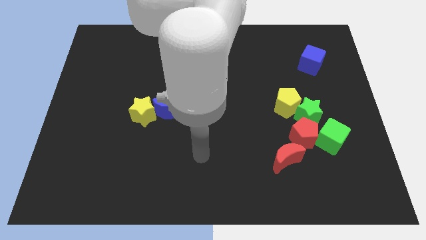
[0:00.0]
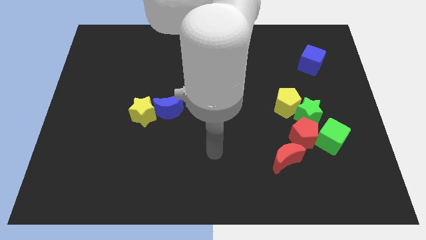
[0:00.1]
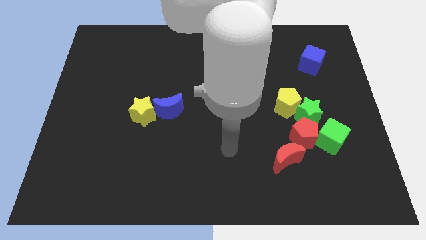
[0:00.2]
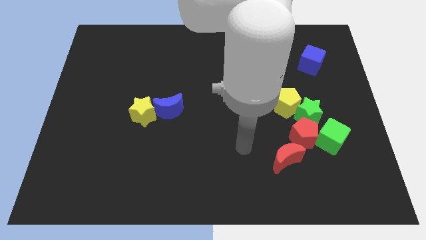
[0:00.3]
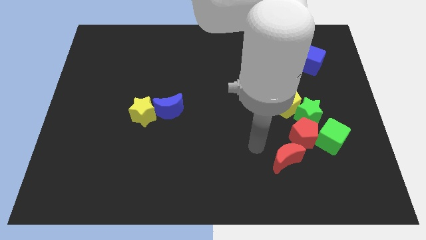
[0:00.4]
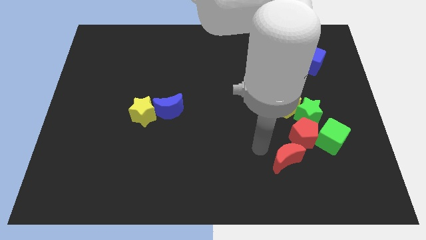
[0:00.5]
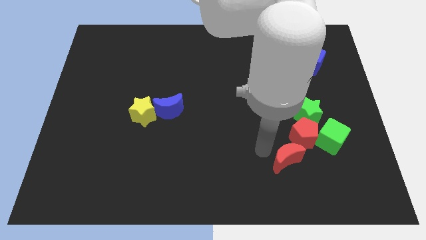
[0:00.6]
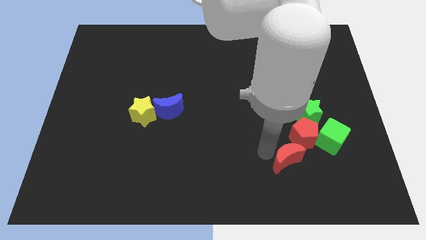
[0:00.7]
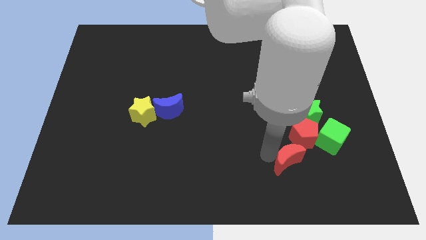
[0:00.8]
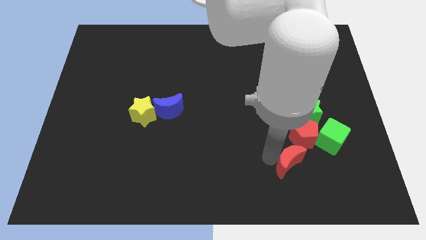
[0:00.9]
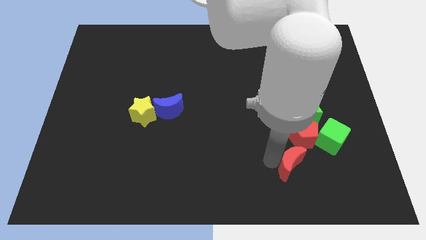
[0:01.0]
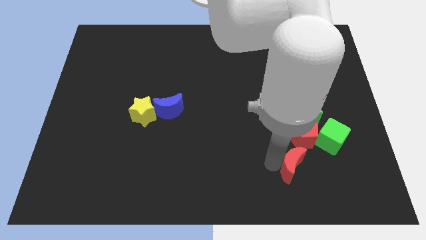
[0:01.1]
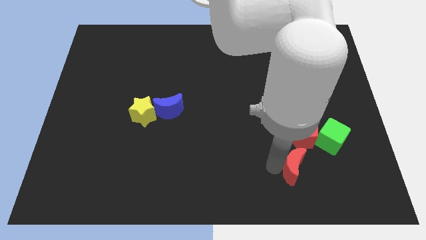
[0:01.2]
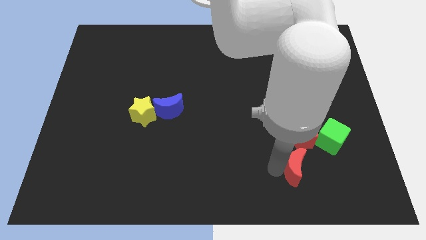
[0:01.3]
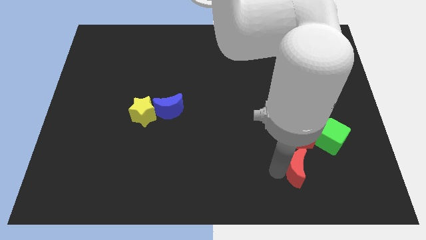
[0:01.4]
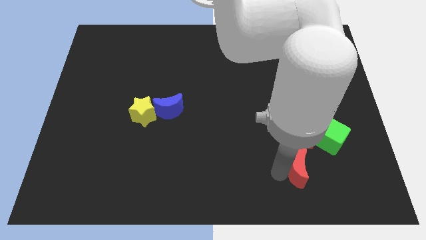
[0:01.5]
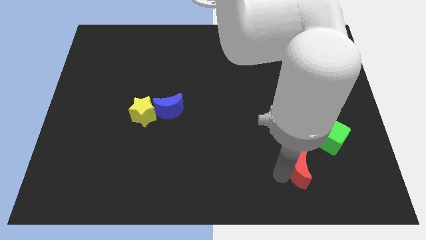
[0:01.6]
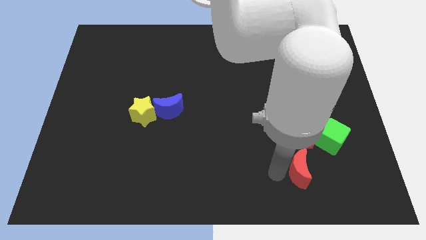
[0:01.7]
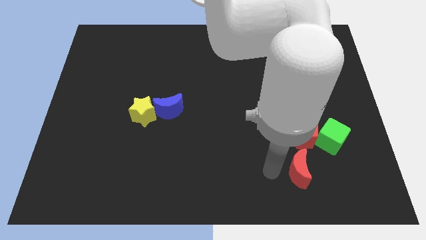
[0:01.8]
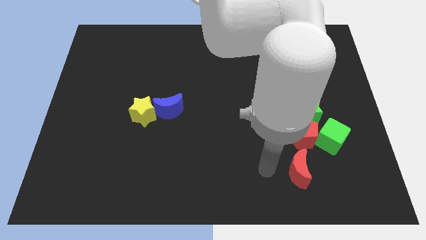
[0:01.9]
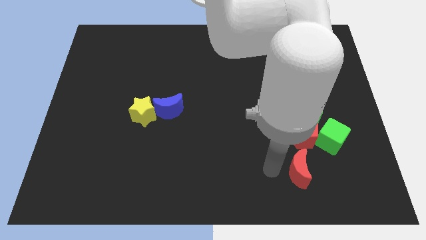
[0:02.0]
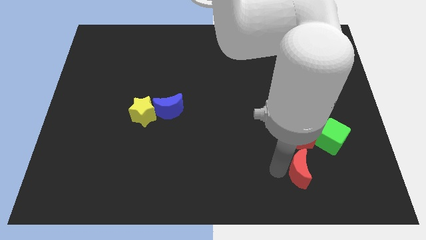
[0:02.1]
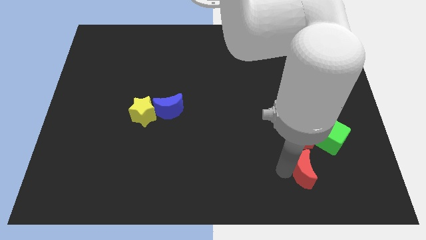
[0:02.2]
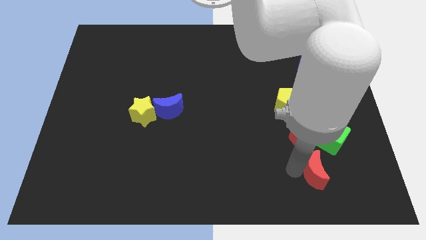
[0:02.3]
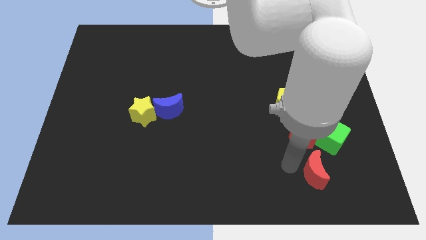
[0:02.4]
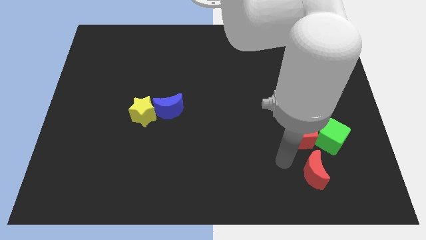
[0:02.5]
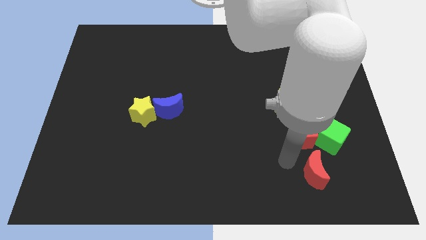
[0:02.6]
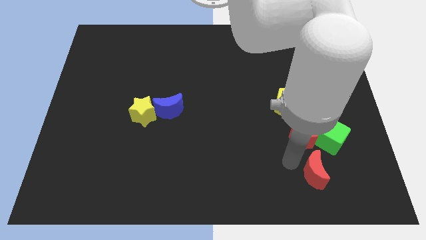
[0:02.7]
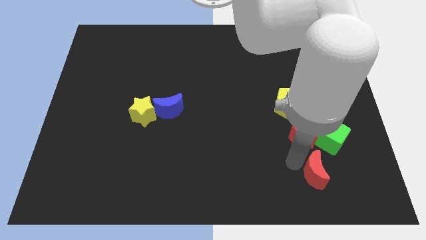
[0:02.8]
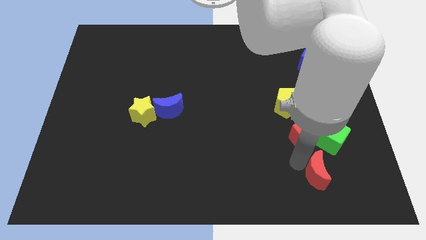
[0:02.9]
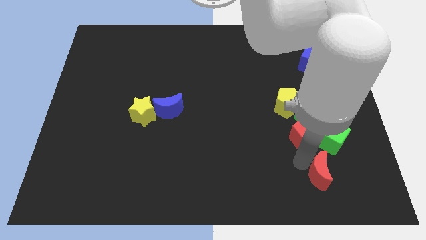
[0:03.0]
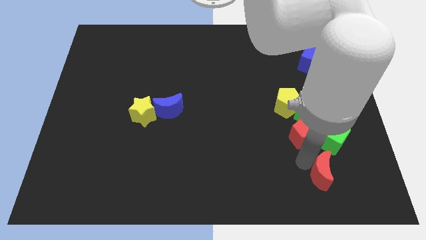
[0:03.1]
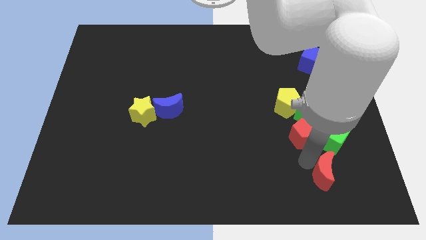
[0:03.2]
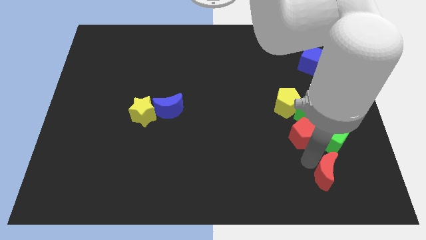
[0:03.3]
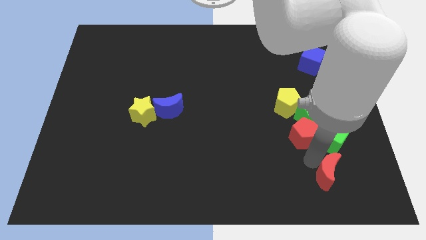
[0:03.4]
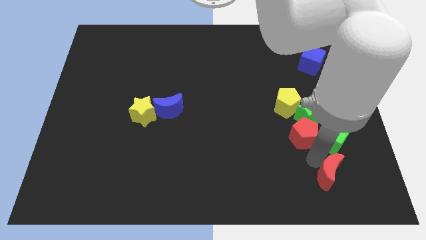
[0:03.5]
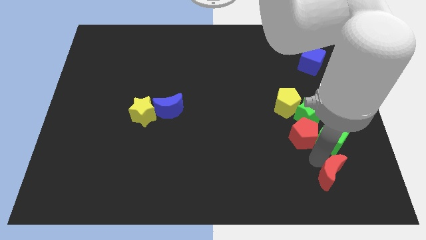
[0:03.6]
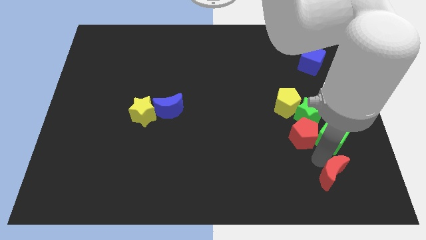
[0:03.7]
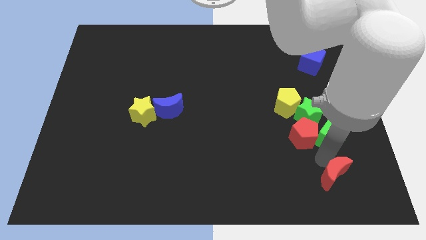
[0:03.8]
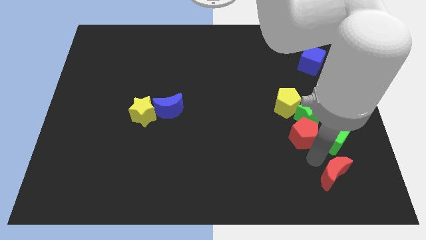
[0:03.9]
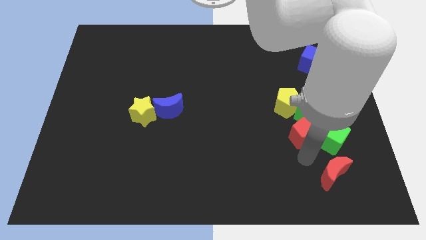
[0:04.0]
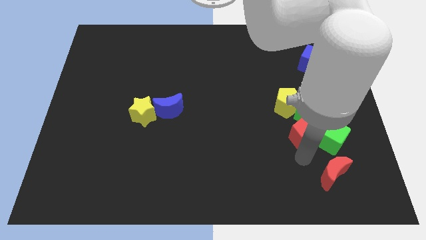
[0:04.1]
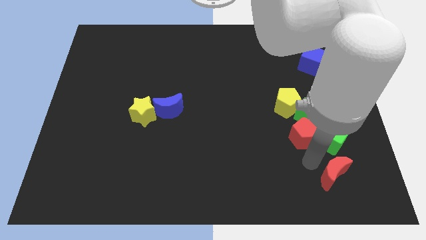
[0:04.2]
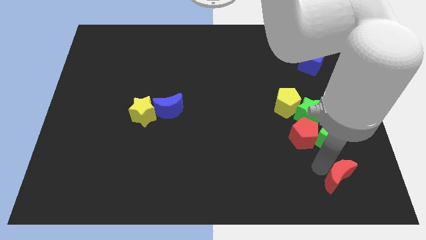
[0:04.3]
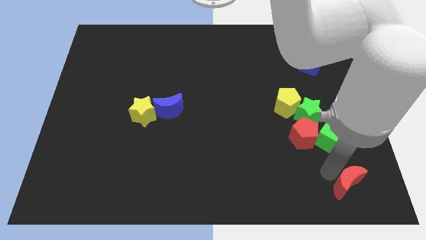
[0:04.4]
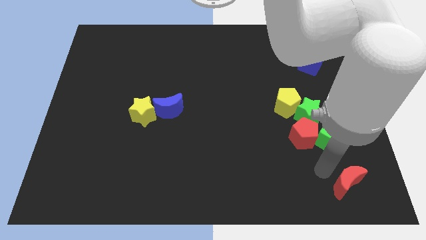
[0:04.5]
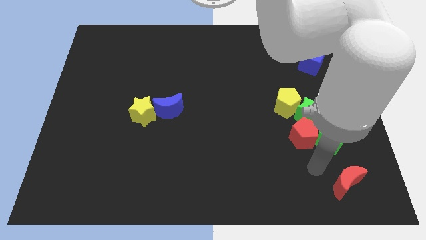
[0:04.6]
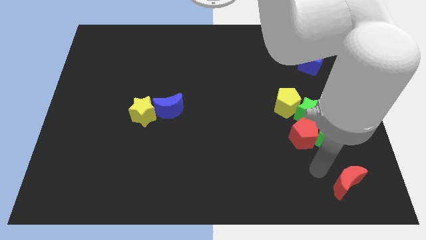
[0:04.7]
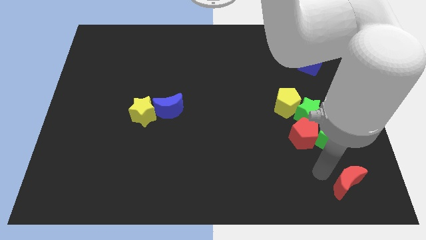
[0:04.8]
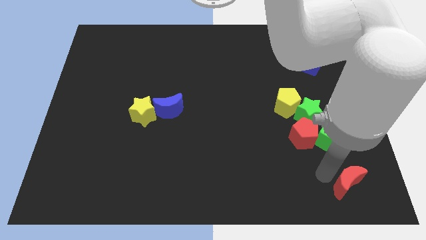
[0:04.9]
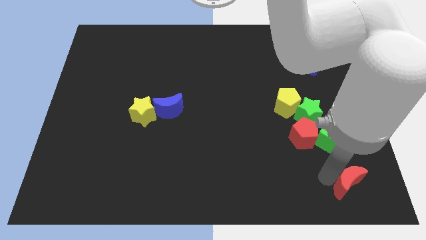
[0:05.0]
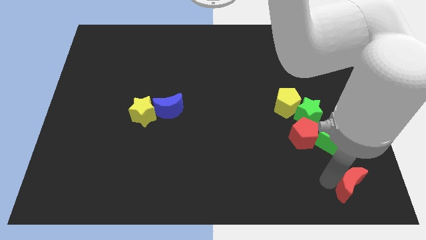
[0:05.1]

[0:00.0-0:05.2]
put the red moon to the bottom right corner

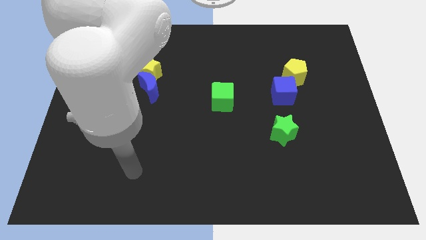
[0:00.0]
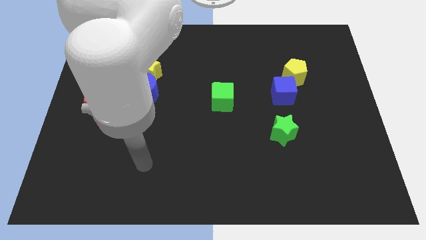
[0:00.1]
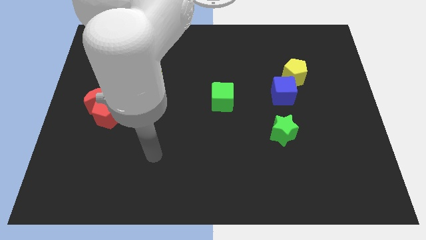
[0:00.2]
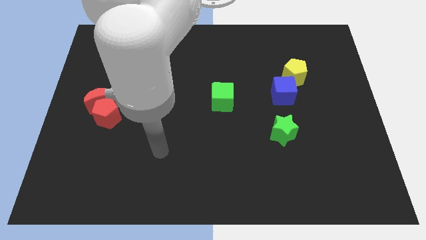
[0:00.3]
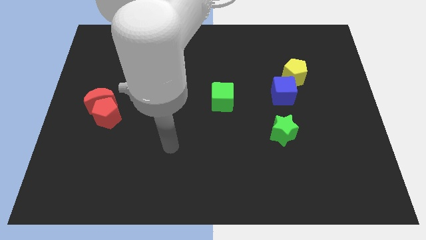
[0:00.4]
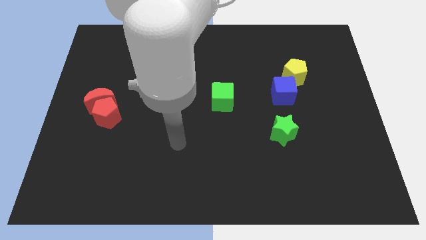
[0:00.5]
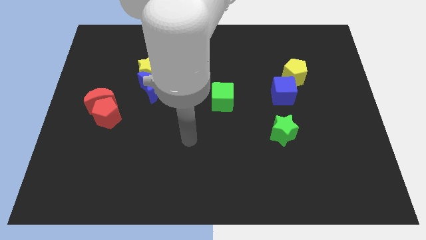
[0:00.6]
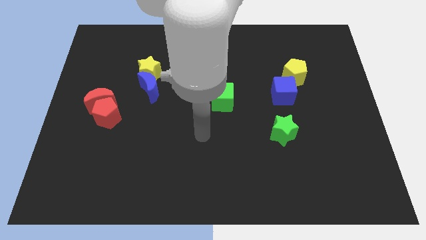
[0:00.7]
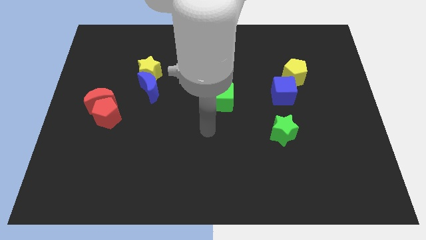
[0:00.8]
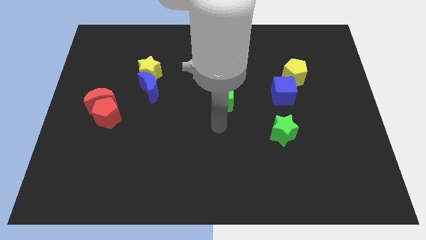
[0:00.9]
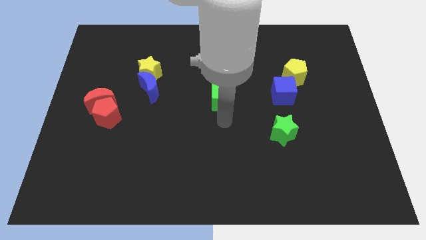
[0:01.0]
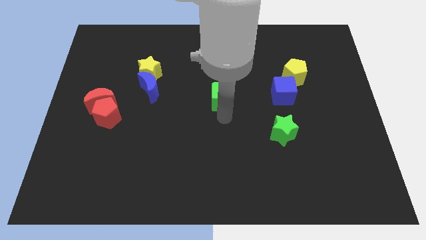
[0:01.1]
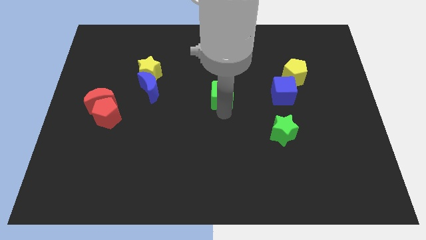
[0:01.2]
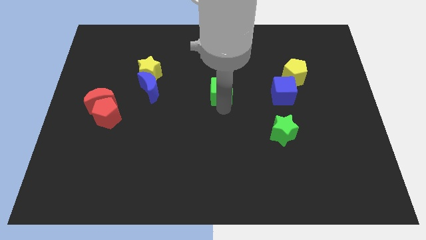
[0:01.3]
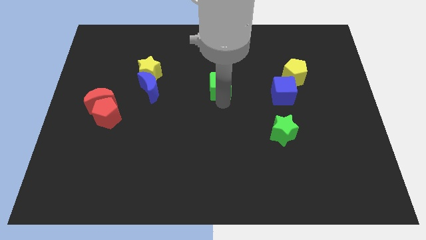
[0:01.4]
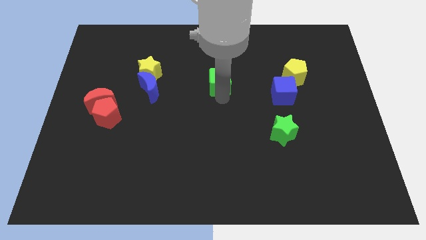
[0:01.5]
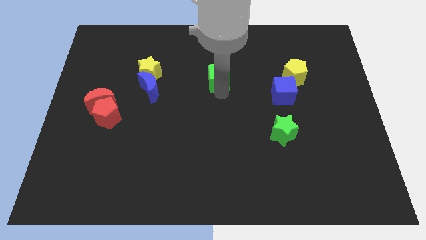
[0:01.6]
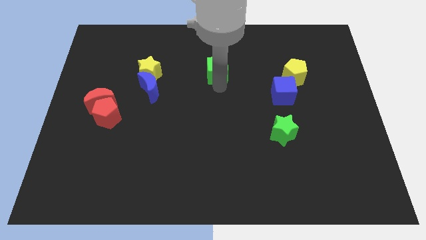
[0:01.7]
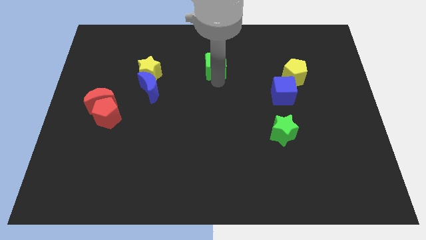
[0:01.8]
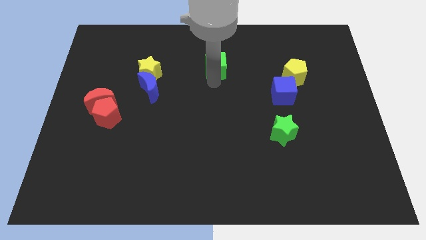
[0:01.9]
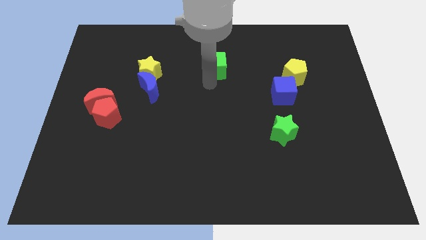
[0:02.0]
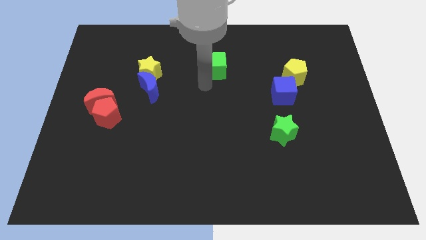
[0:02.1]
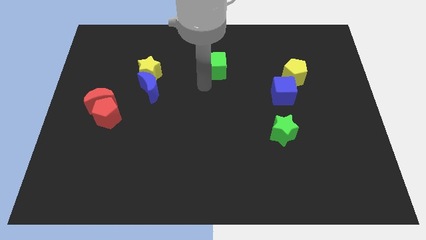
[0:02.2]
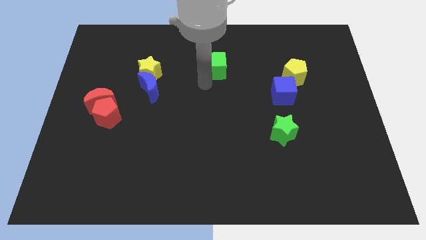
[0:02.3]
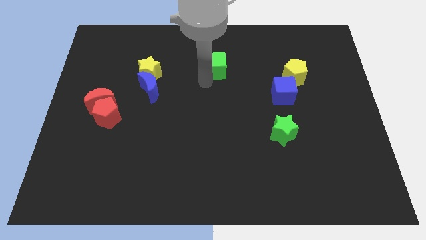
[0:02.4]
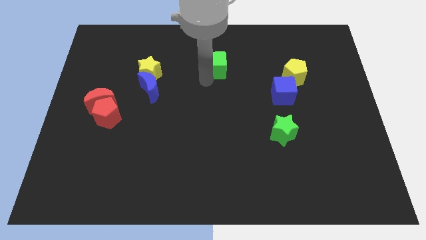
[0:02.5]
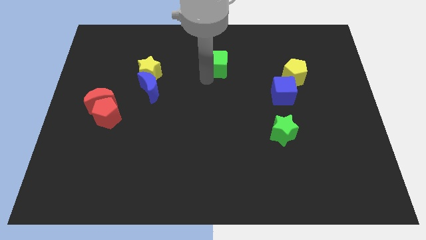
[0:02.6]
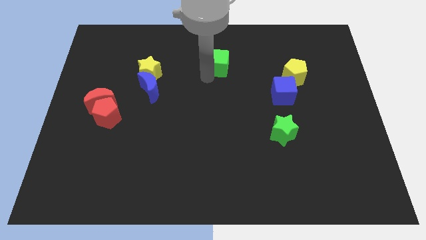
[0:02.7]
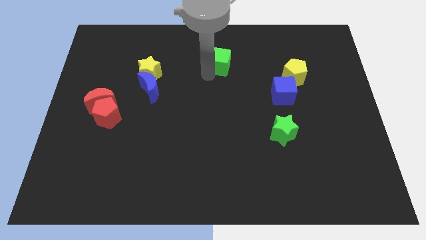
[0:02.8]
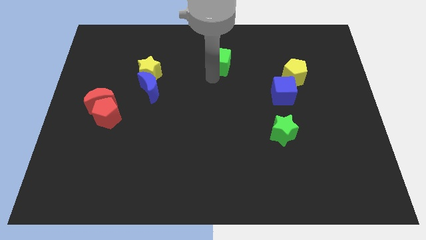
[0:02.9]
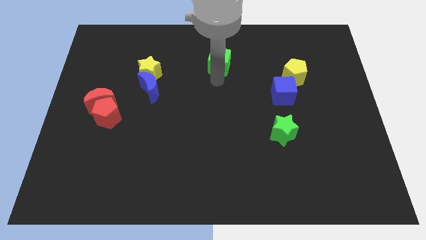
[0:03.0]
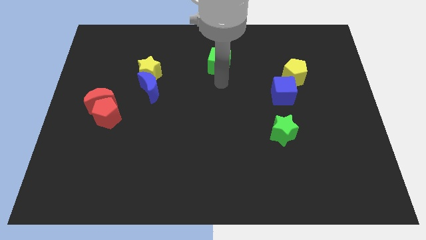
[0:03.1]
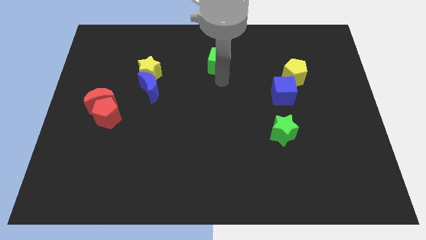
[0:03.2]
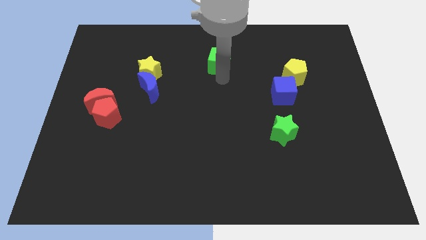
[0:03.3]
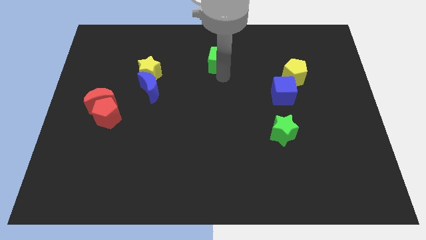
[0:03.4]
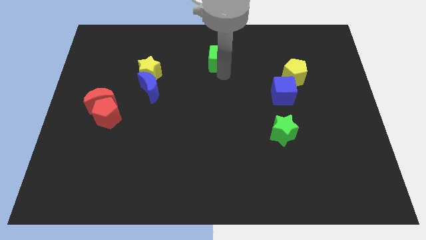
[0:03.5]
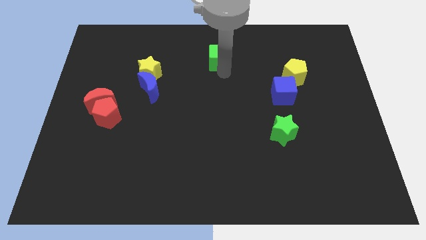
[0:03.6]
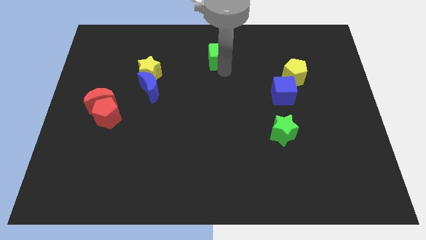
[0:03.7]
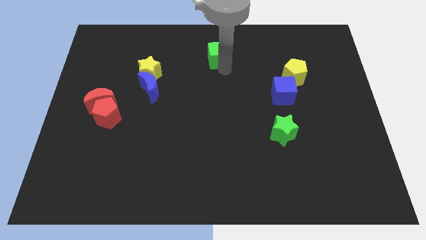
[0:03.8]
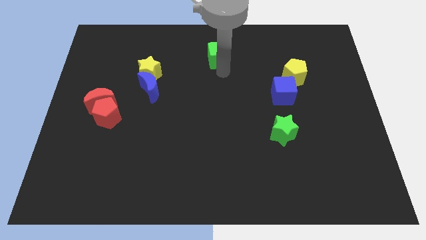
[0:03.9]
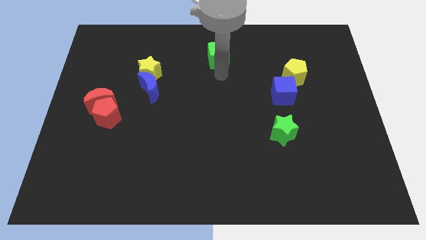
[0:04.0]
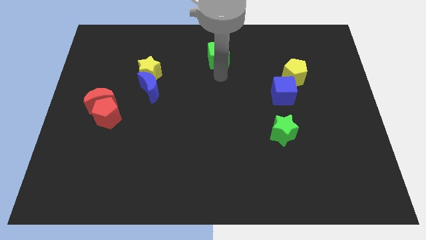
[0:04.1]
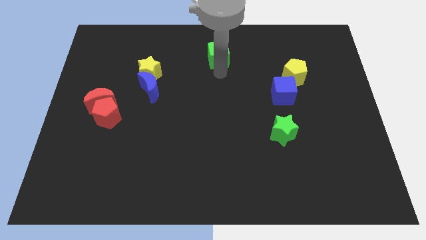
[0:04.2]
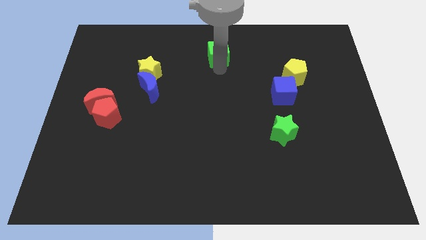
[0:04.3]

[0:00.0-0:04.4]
push the green cube to the towards your base
